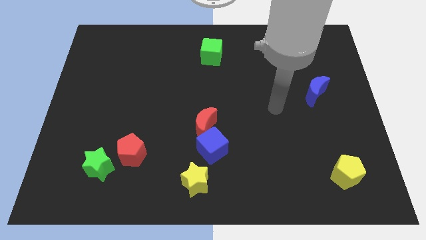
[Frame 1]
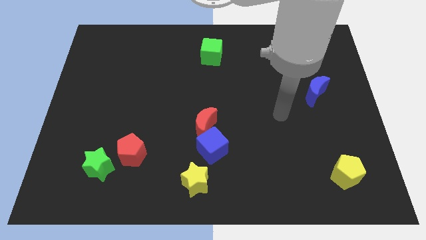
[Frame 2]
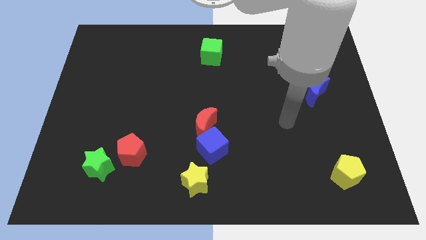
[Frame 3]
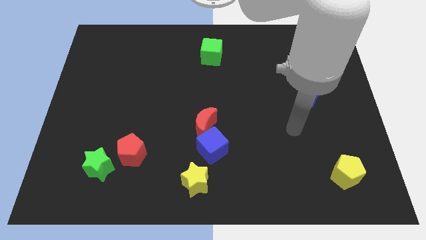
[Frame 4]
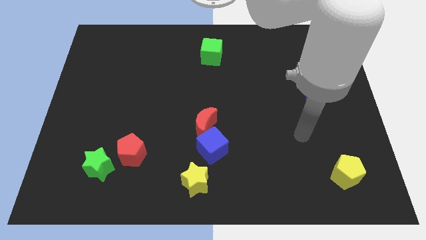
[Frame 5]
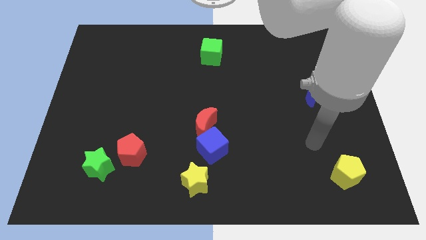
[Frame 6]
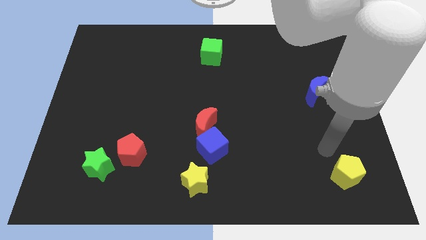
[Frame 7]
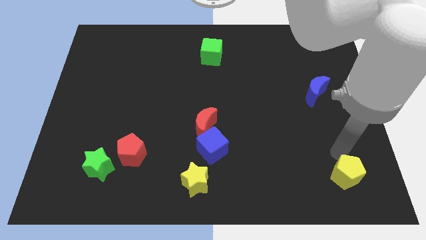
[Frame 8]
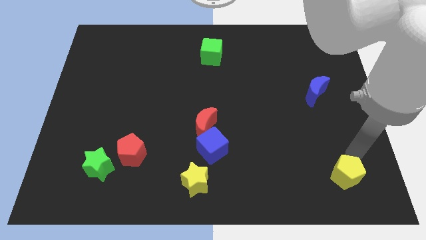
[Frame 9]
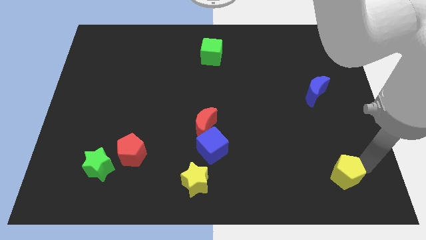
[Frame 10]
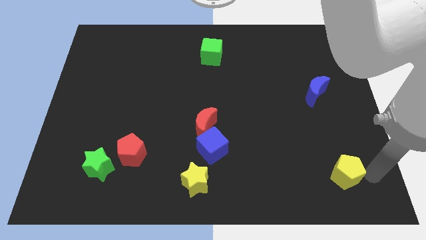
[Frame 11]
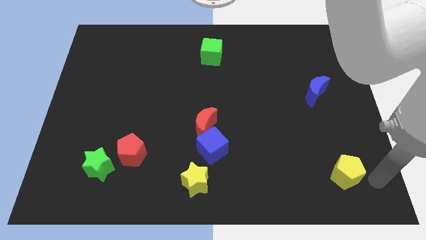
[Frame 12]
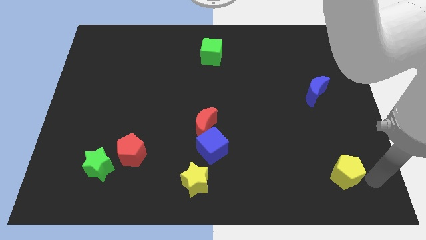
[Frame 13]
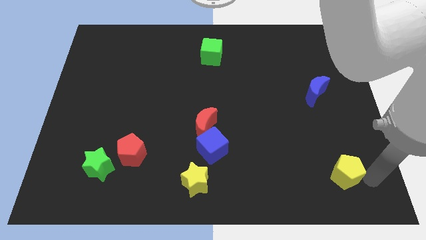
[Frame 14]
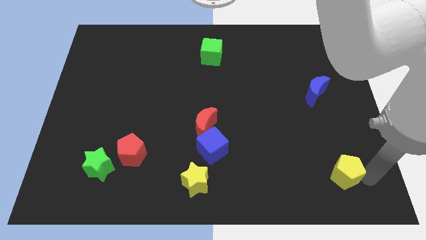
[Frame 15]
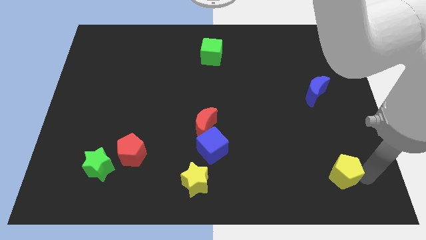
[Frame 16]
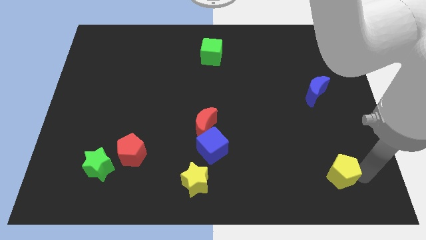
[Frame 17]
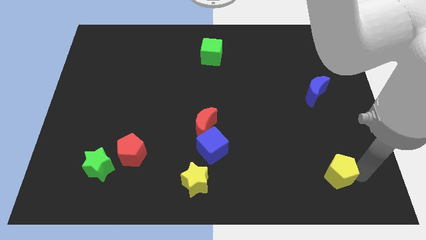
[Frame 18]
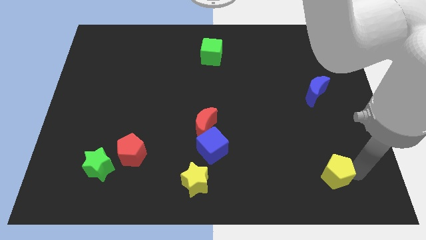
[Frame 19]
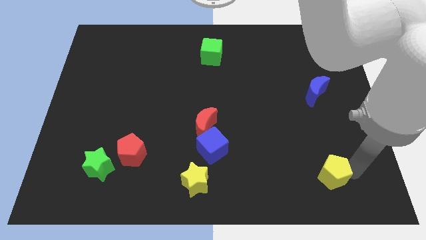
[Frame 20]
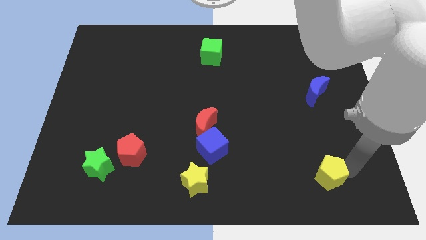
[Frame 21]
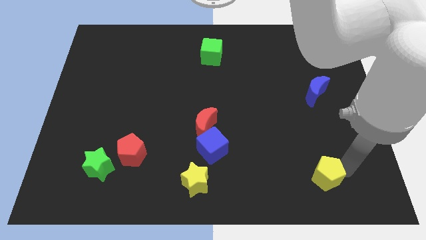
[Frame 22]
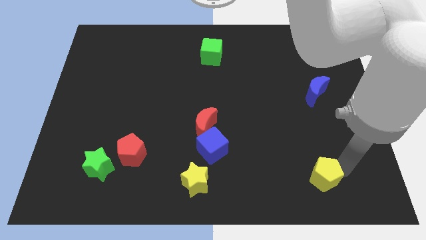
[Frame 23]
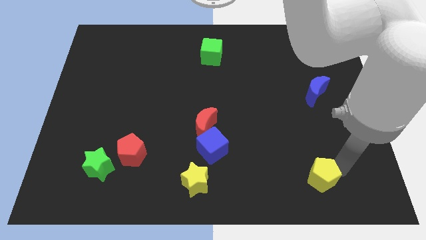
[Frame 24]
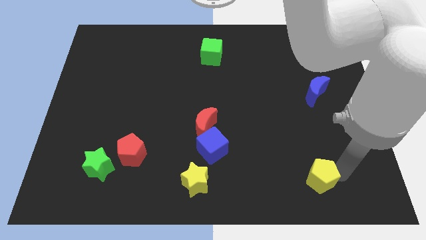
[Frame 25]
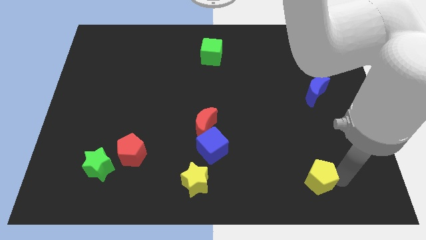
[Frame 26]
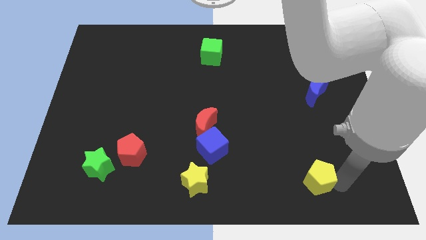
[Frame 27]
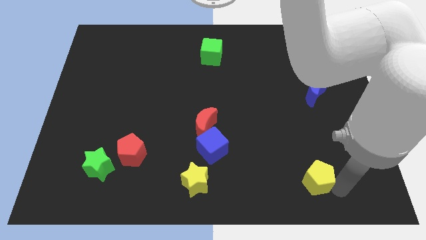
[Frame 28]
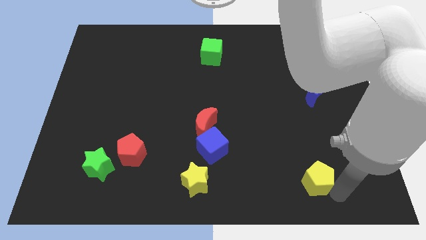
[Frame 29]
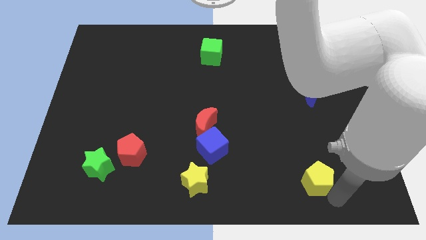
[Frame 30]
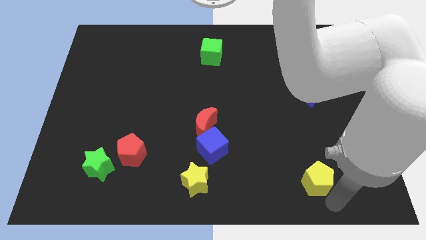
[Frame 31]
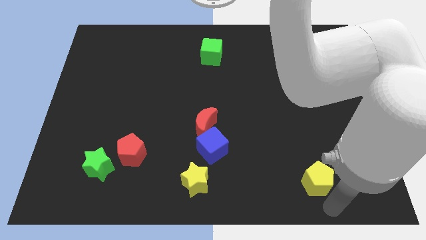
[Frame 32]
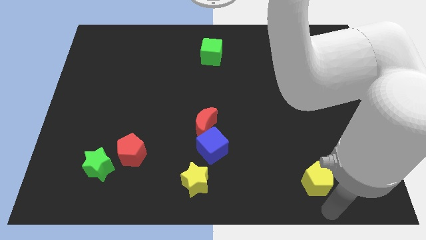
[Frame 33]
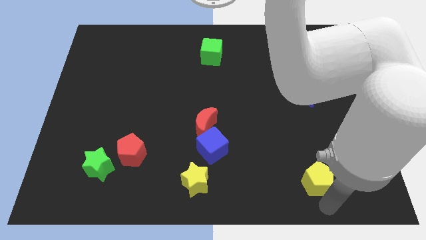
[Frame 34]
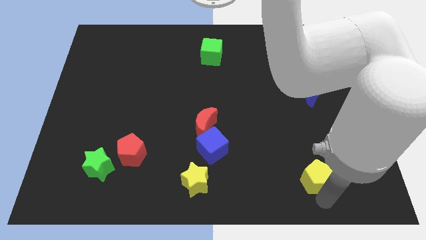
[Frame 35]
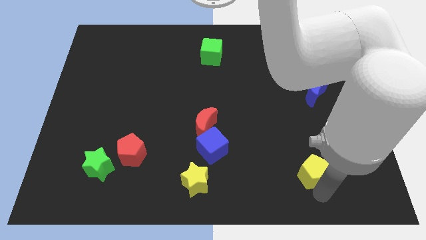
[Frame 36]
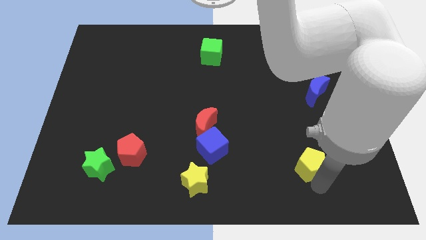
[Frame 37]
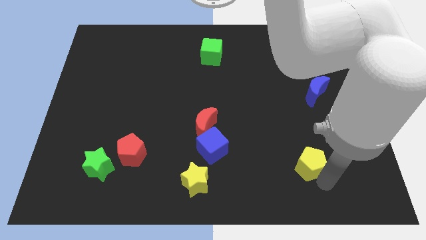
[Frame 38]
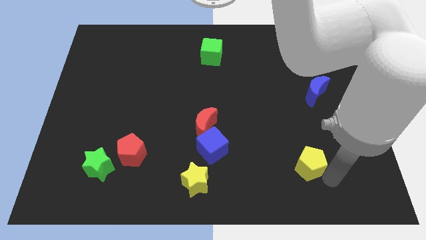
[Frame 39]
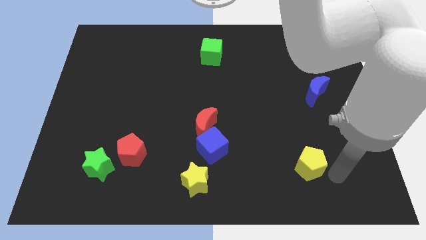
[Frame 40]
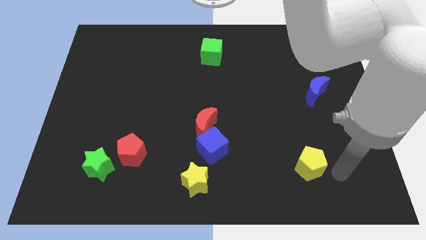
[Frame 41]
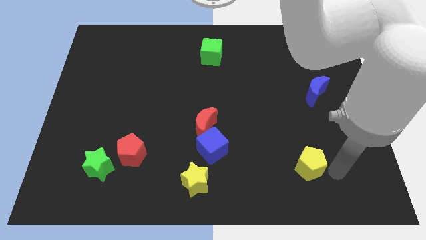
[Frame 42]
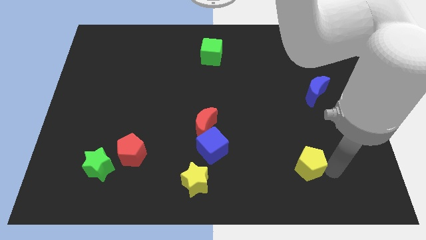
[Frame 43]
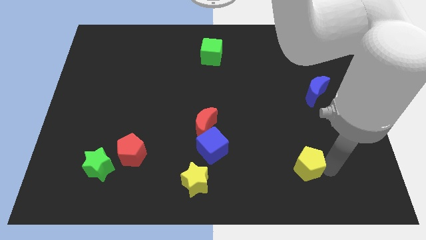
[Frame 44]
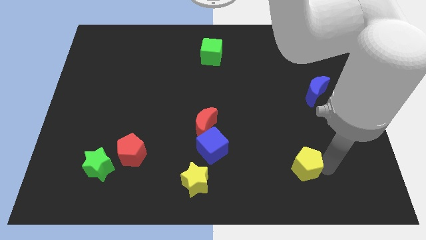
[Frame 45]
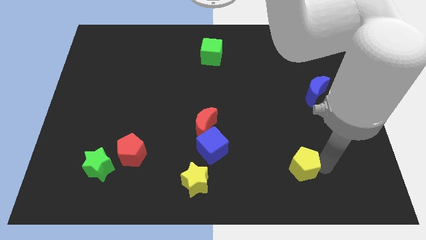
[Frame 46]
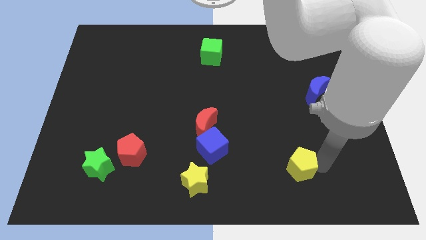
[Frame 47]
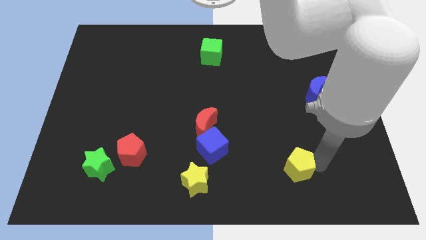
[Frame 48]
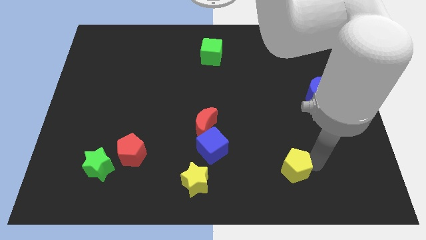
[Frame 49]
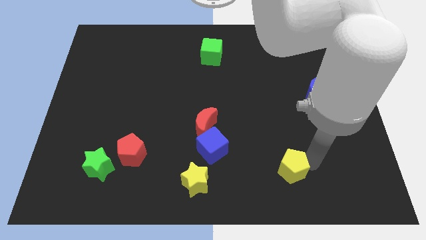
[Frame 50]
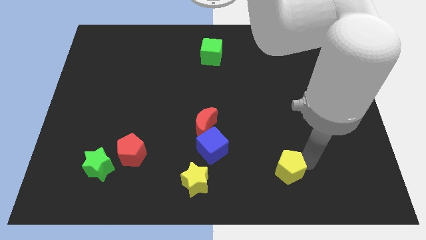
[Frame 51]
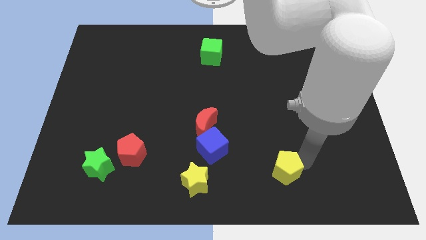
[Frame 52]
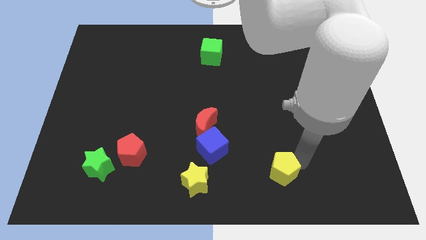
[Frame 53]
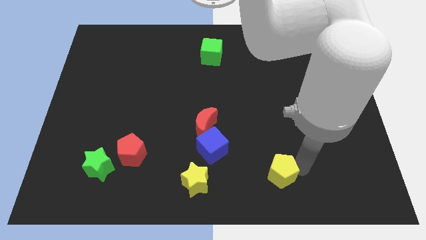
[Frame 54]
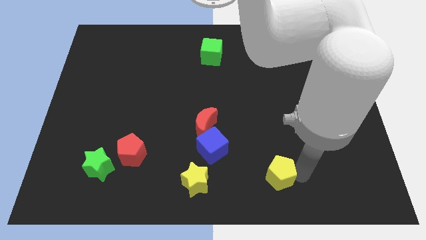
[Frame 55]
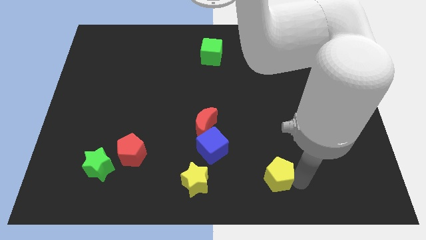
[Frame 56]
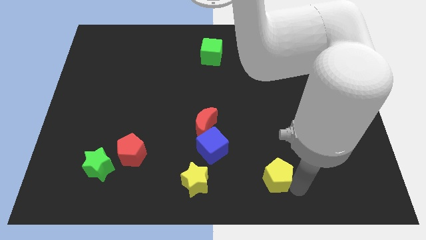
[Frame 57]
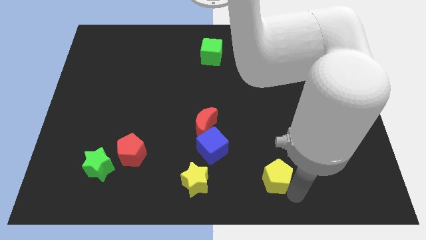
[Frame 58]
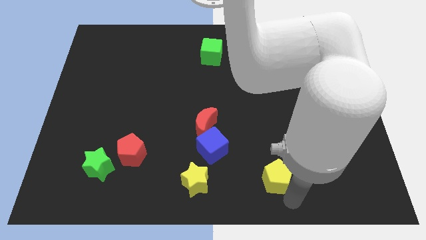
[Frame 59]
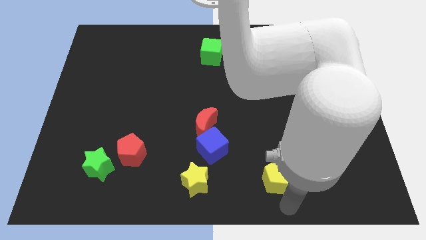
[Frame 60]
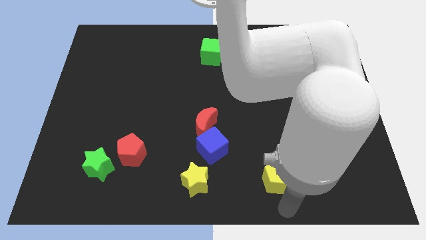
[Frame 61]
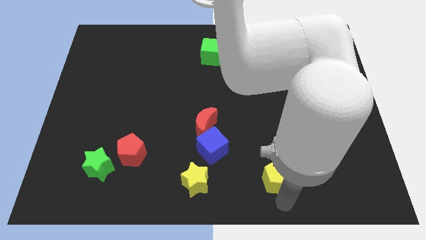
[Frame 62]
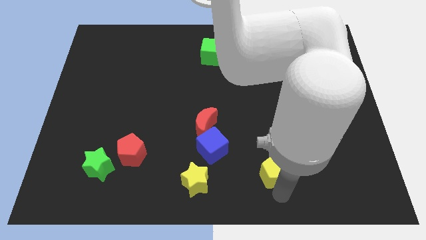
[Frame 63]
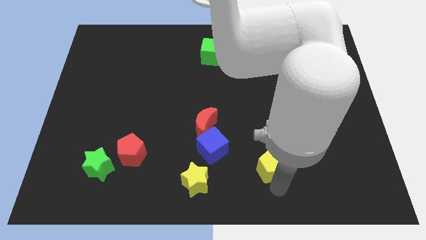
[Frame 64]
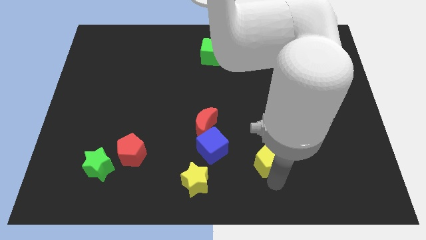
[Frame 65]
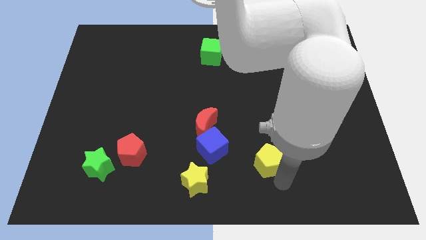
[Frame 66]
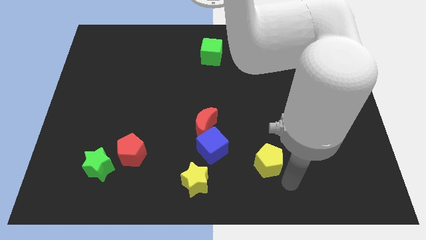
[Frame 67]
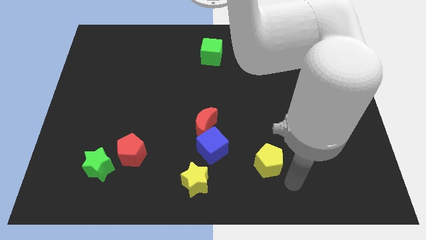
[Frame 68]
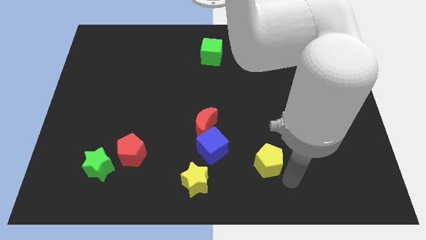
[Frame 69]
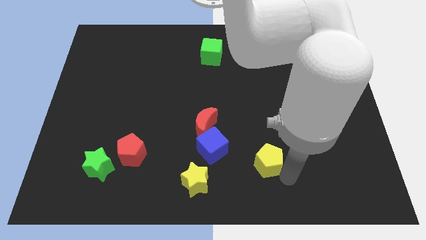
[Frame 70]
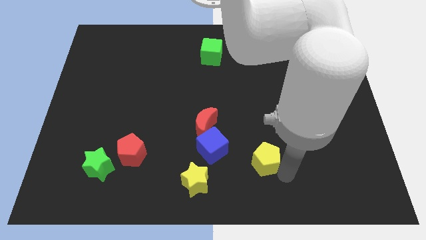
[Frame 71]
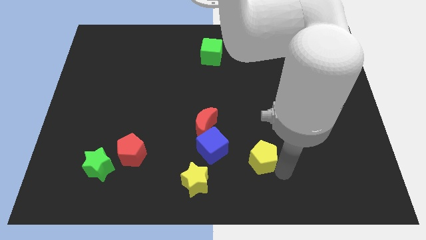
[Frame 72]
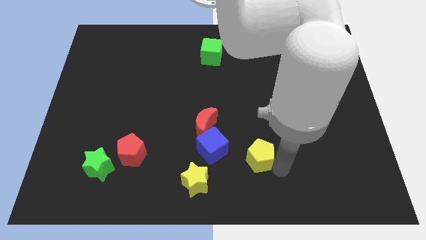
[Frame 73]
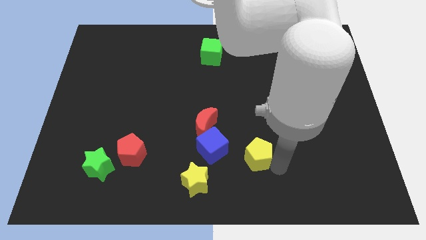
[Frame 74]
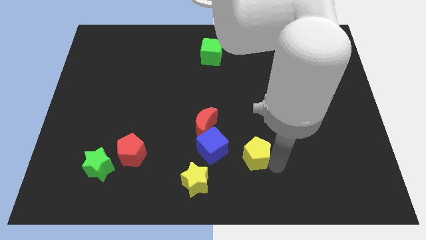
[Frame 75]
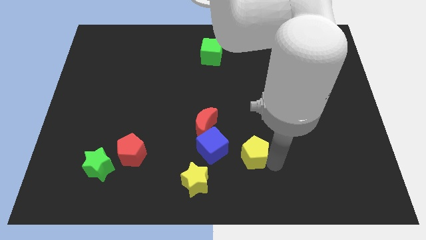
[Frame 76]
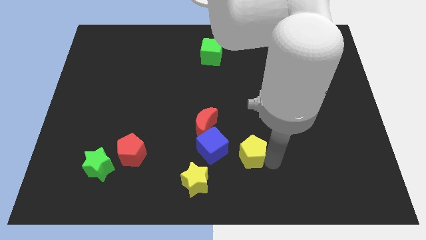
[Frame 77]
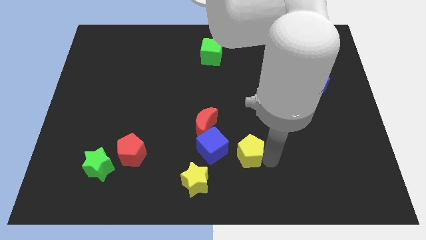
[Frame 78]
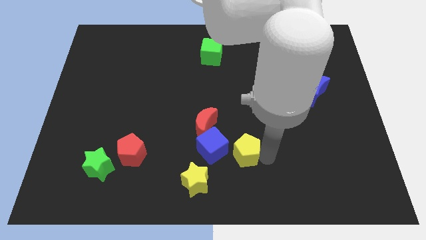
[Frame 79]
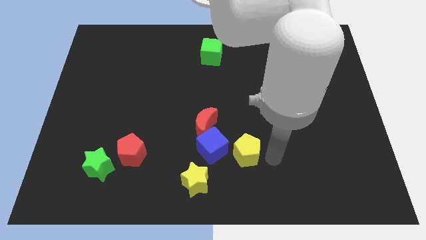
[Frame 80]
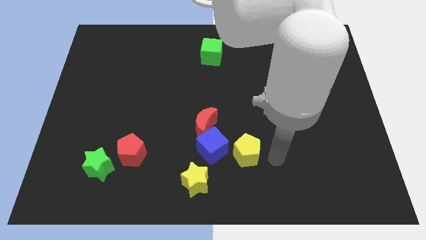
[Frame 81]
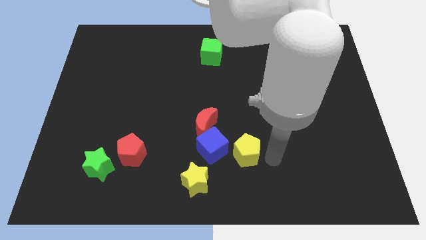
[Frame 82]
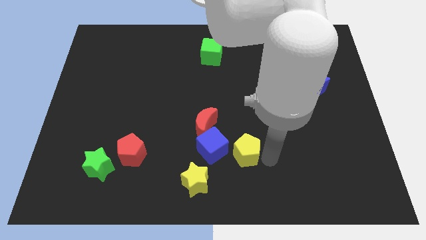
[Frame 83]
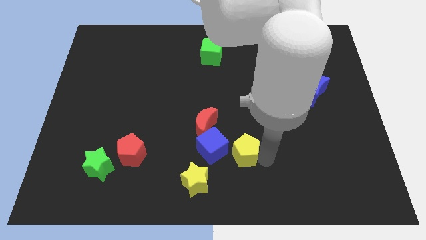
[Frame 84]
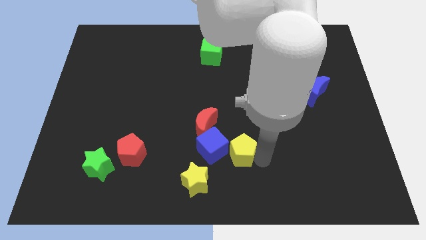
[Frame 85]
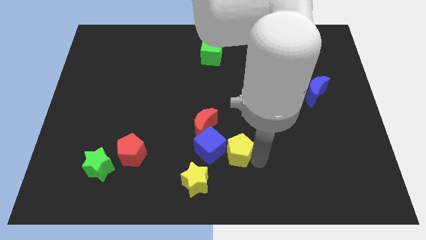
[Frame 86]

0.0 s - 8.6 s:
move the yellow pentagon to the blue cube
